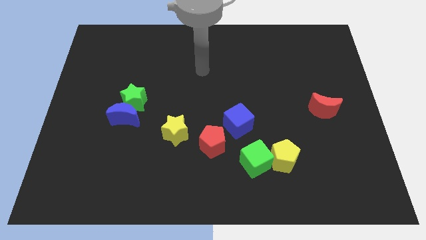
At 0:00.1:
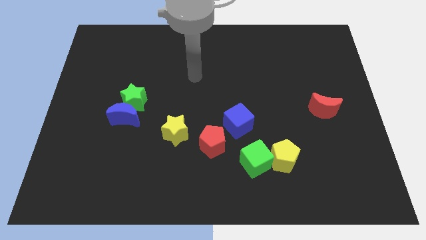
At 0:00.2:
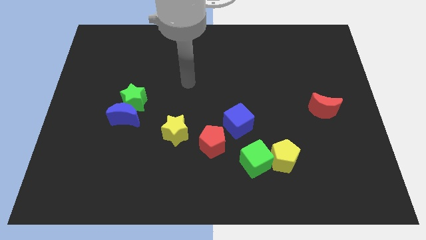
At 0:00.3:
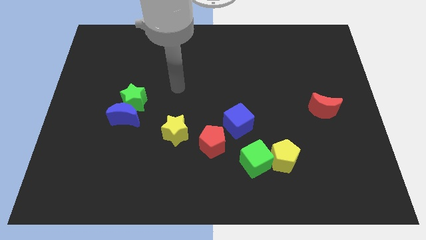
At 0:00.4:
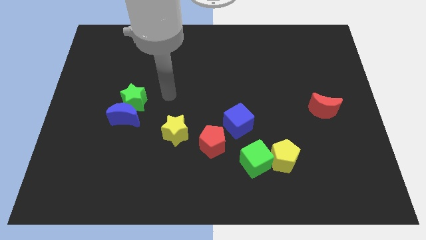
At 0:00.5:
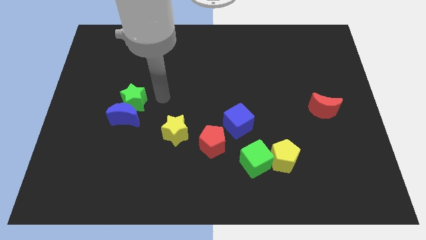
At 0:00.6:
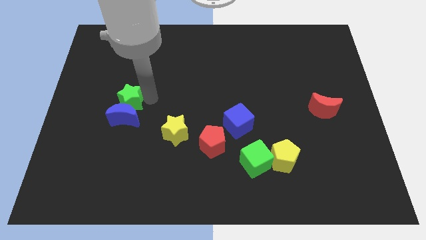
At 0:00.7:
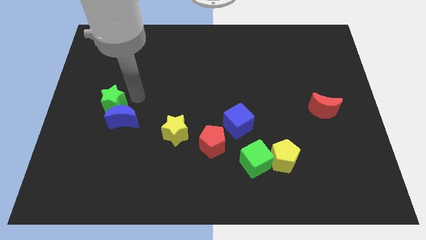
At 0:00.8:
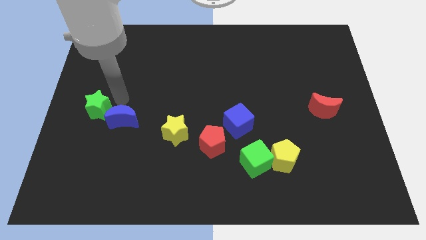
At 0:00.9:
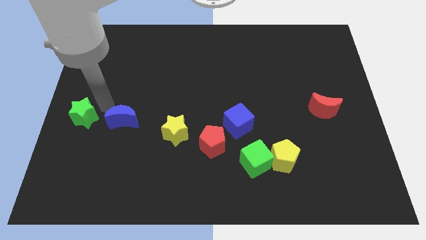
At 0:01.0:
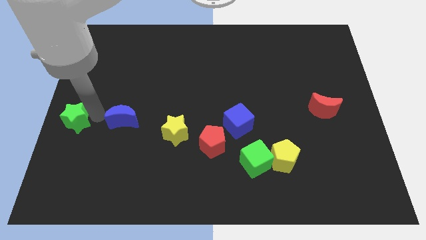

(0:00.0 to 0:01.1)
move the blue moon away from the green star

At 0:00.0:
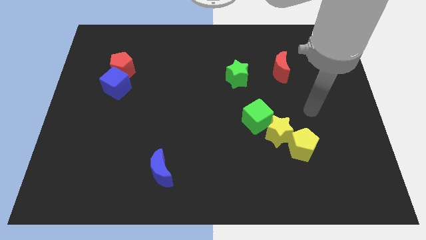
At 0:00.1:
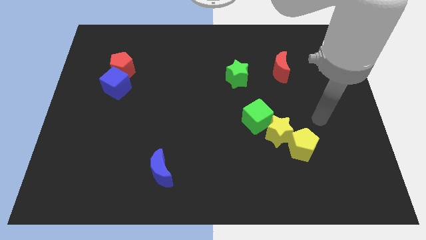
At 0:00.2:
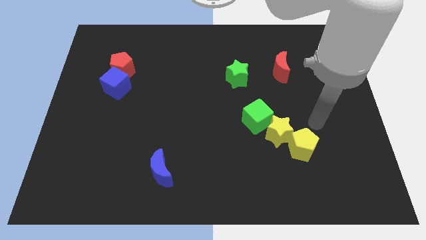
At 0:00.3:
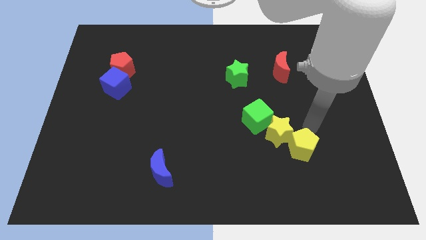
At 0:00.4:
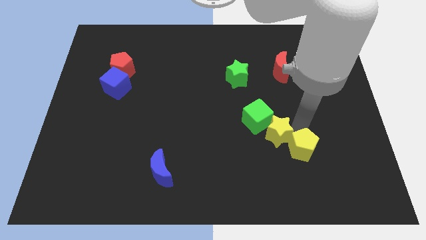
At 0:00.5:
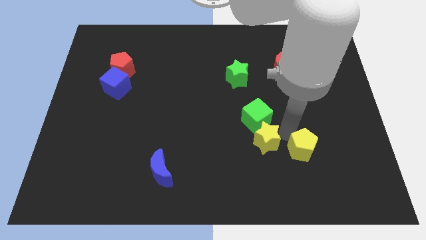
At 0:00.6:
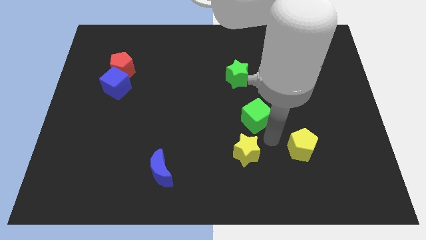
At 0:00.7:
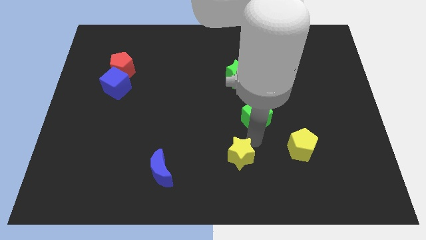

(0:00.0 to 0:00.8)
separate the green cube from the yellow star

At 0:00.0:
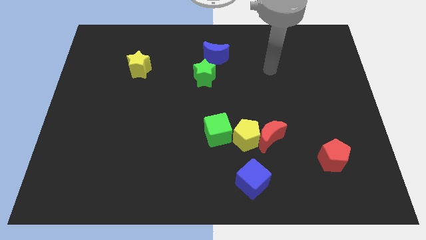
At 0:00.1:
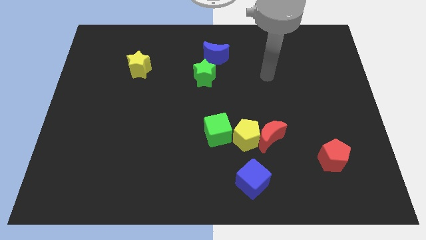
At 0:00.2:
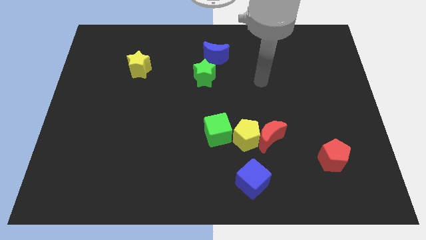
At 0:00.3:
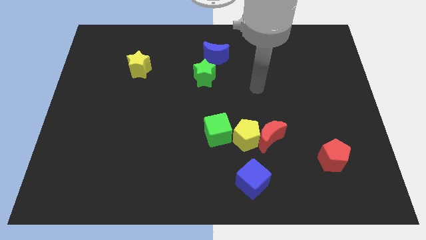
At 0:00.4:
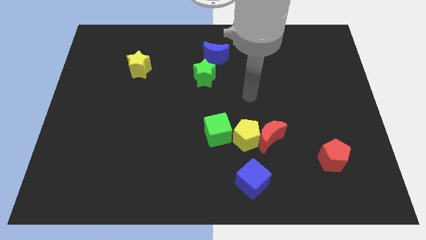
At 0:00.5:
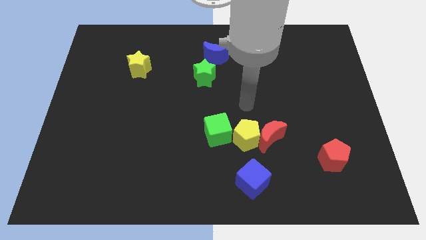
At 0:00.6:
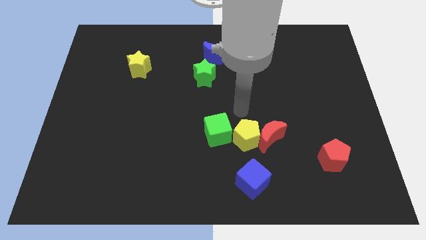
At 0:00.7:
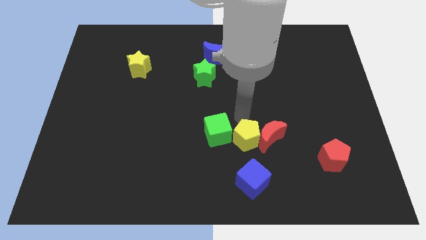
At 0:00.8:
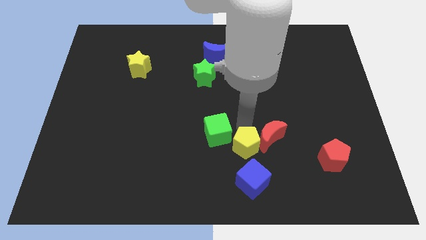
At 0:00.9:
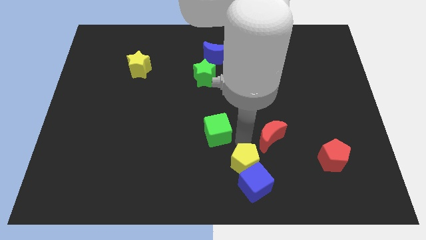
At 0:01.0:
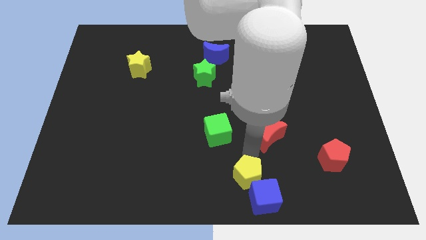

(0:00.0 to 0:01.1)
pull the red moon apart from the yellow pentagon

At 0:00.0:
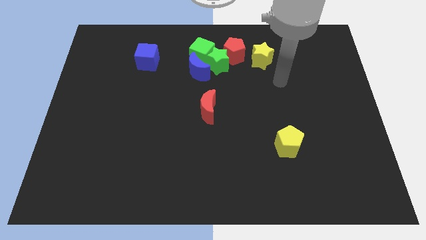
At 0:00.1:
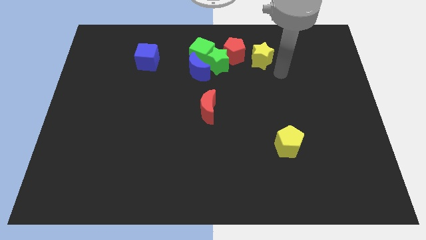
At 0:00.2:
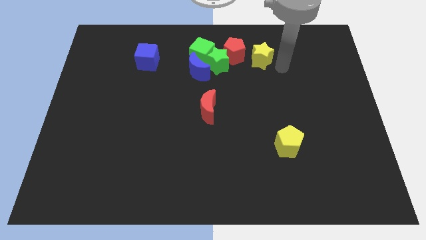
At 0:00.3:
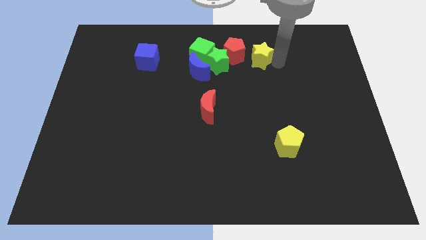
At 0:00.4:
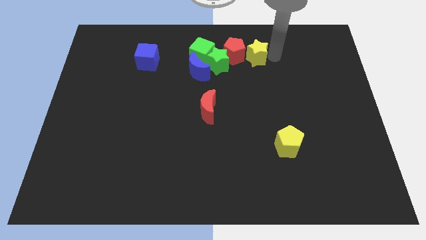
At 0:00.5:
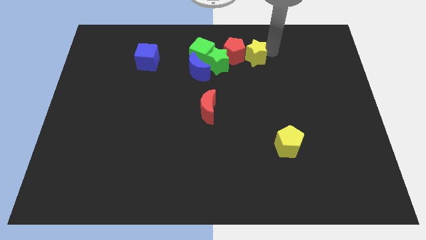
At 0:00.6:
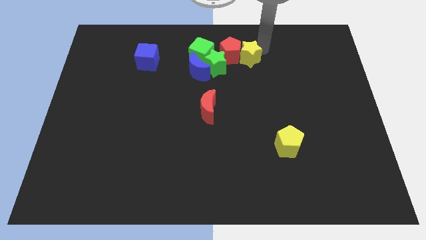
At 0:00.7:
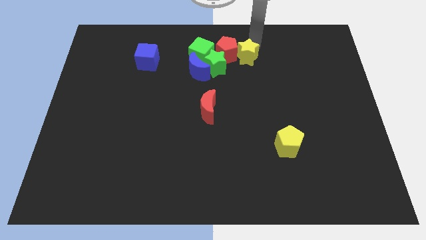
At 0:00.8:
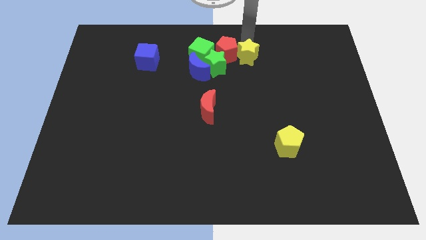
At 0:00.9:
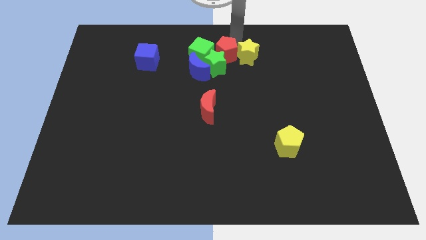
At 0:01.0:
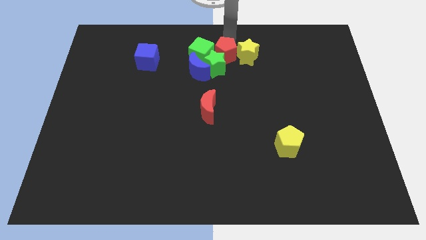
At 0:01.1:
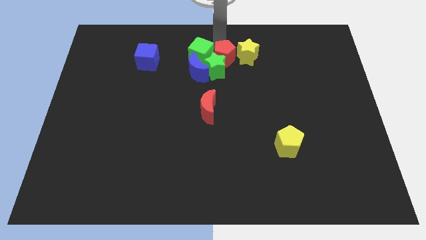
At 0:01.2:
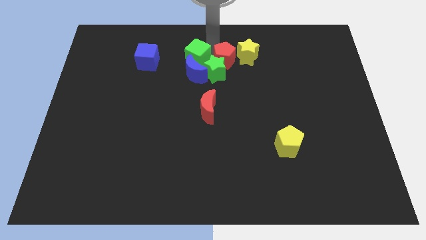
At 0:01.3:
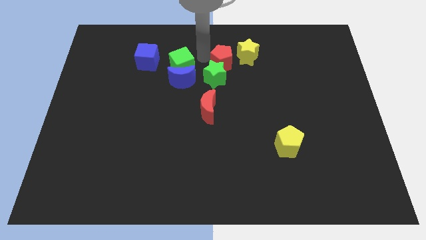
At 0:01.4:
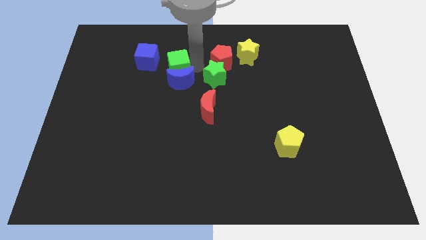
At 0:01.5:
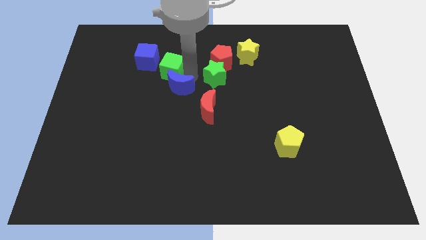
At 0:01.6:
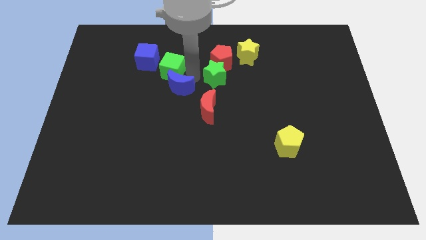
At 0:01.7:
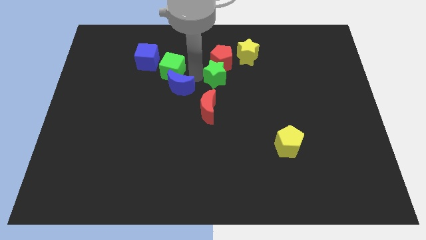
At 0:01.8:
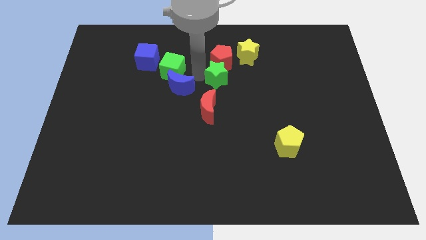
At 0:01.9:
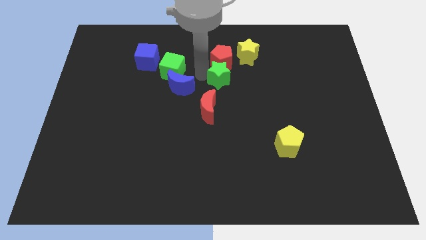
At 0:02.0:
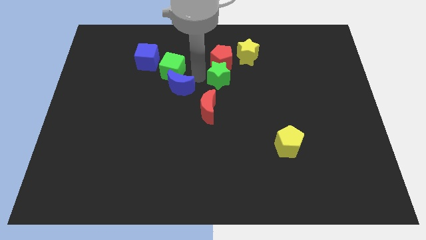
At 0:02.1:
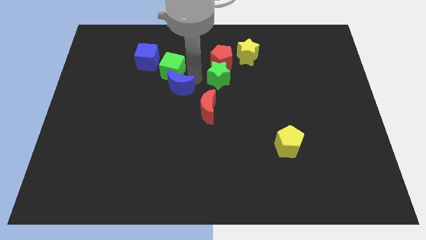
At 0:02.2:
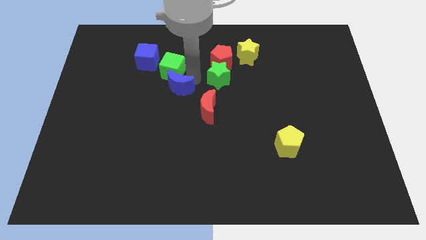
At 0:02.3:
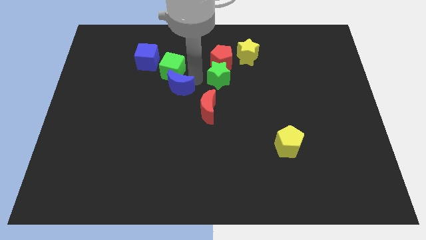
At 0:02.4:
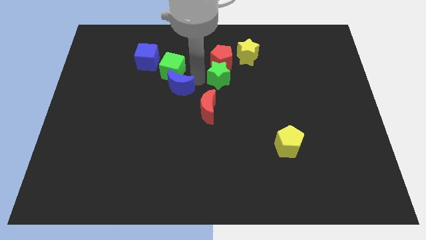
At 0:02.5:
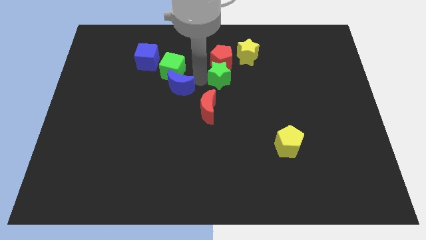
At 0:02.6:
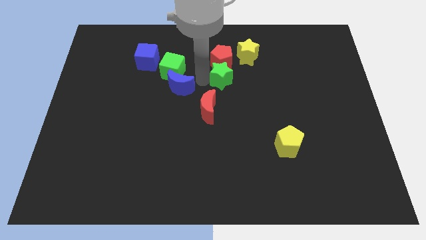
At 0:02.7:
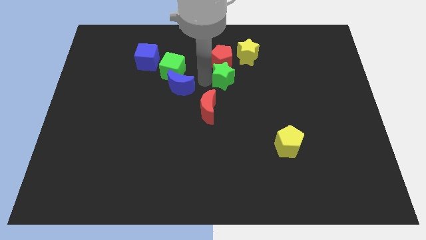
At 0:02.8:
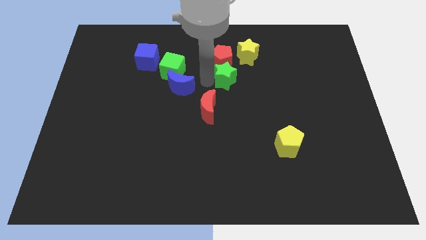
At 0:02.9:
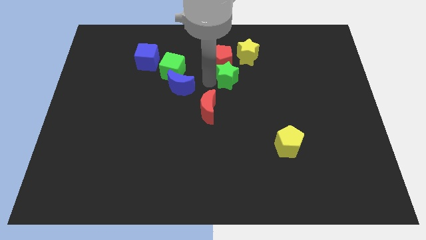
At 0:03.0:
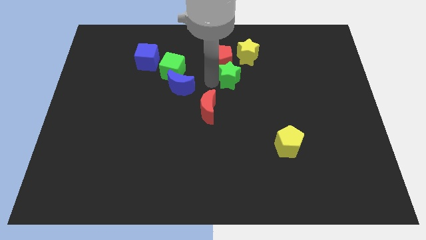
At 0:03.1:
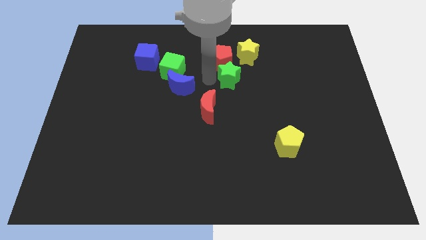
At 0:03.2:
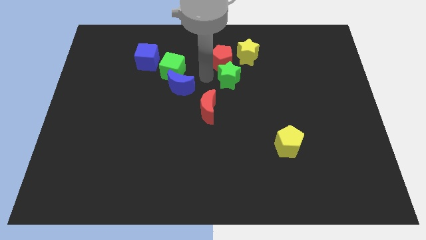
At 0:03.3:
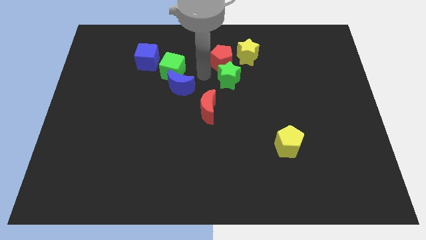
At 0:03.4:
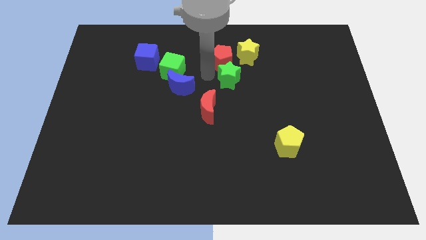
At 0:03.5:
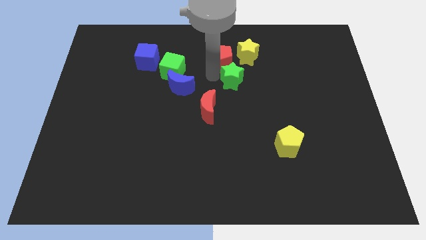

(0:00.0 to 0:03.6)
pull the green star apart from the clump

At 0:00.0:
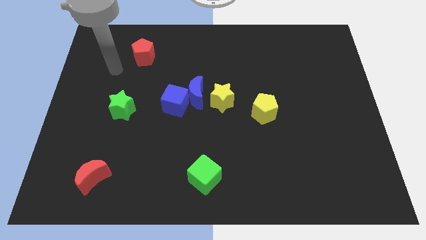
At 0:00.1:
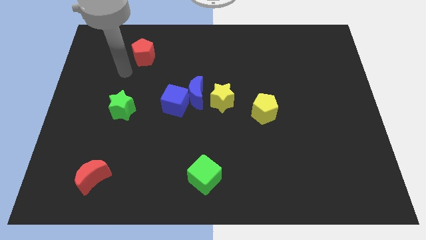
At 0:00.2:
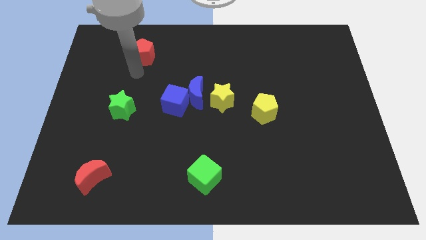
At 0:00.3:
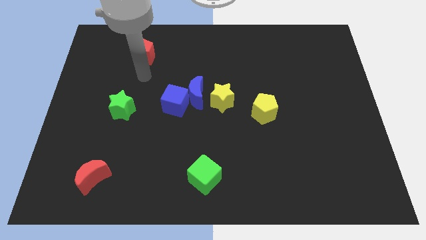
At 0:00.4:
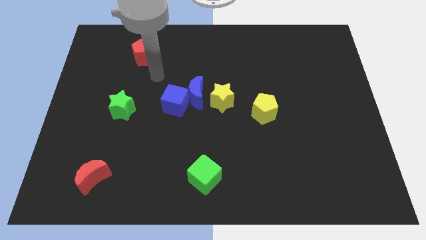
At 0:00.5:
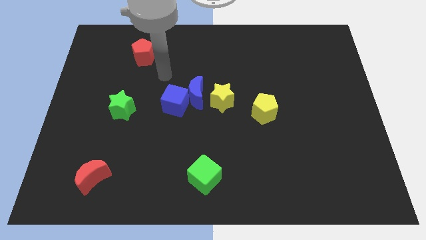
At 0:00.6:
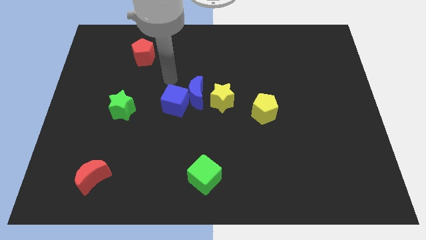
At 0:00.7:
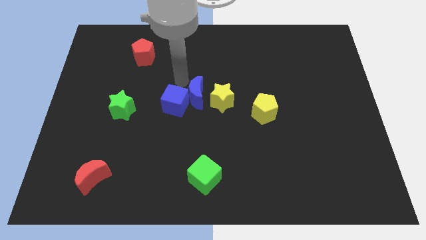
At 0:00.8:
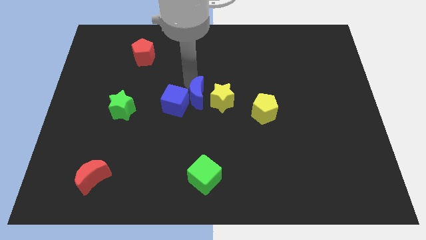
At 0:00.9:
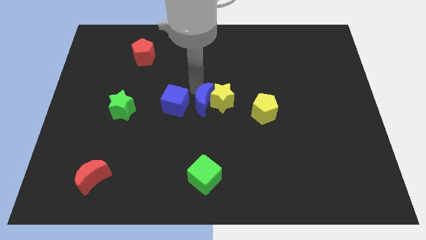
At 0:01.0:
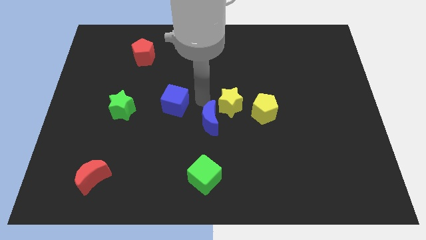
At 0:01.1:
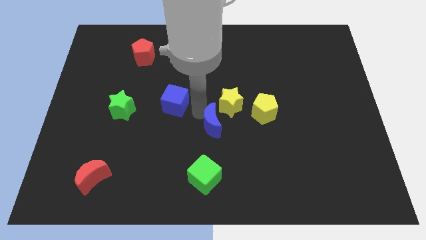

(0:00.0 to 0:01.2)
move the blue cube away from the blue moon

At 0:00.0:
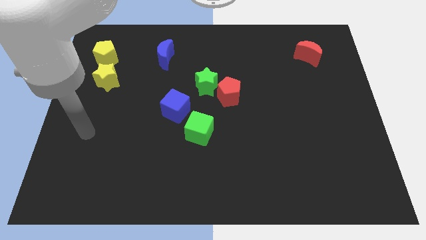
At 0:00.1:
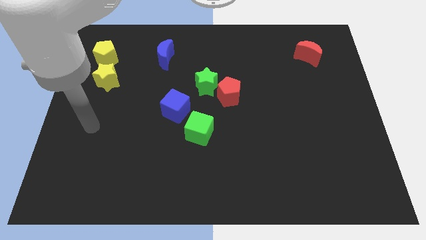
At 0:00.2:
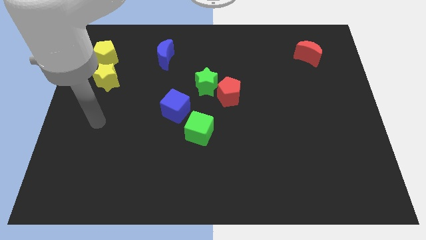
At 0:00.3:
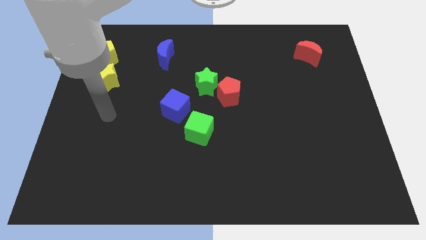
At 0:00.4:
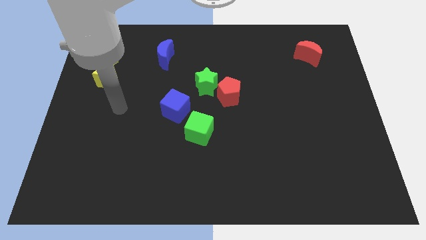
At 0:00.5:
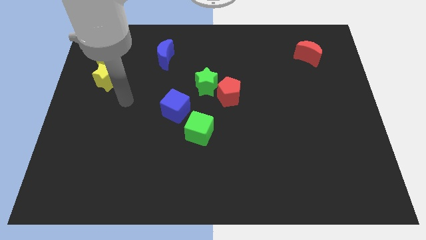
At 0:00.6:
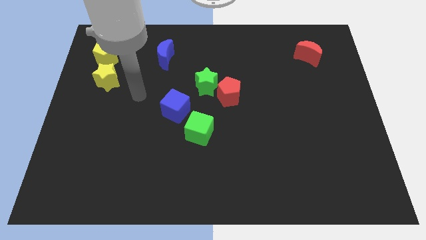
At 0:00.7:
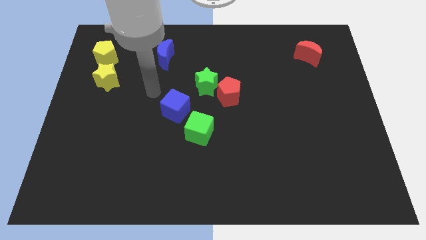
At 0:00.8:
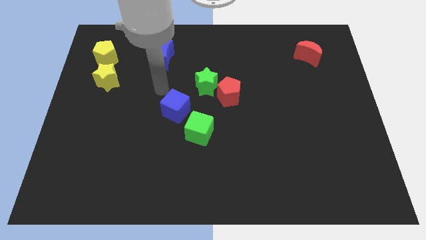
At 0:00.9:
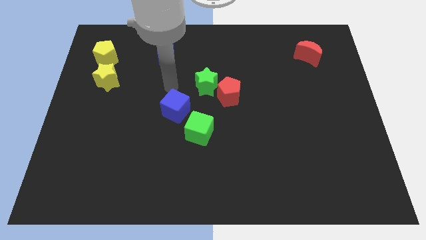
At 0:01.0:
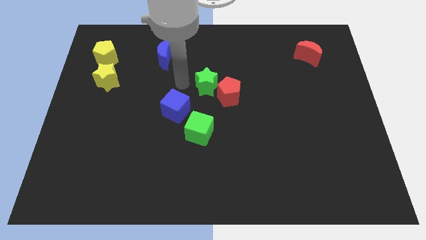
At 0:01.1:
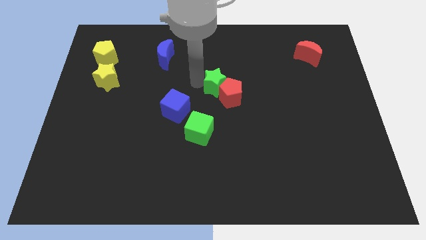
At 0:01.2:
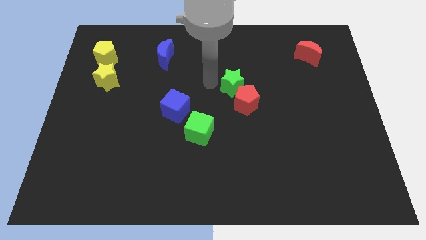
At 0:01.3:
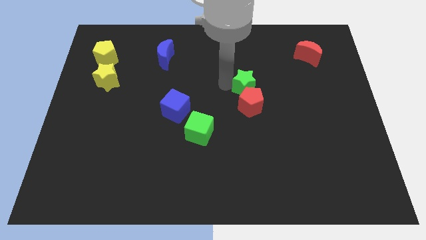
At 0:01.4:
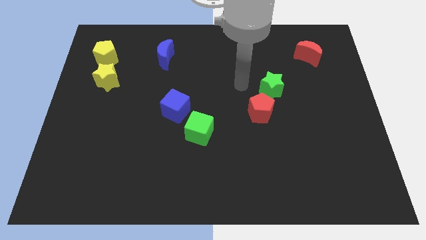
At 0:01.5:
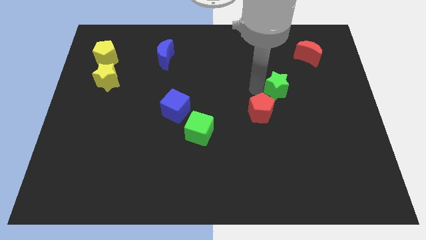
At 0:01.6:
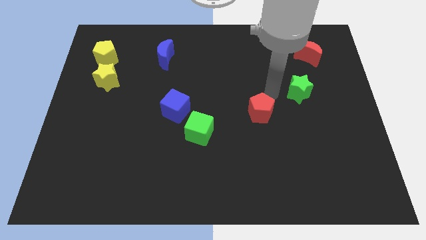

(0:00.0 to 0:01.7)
pull the red pentagon apart from the green star
